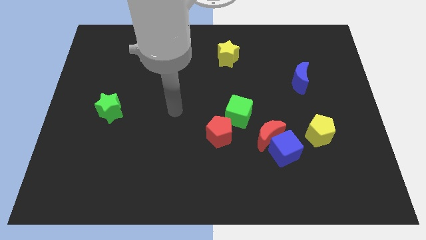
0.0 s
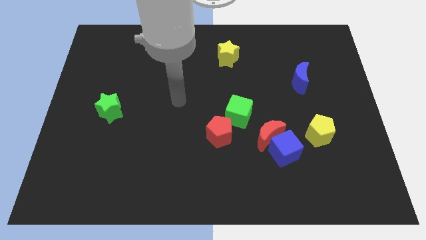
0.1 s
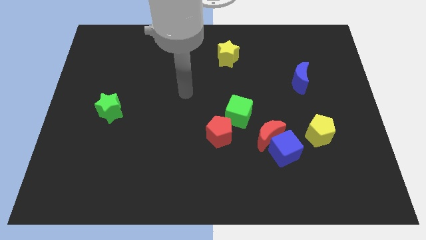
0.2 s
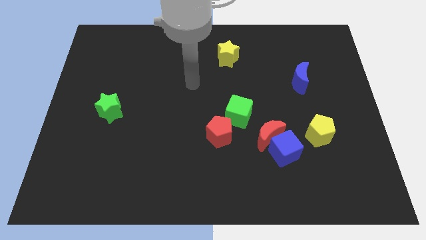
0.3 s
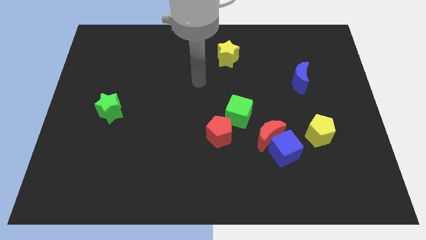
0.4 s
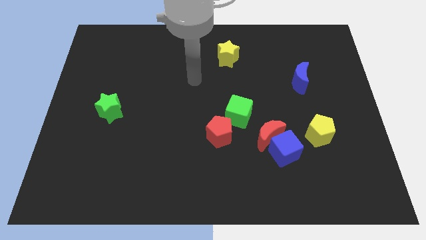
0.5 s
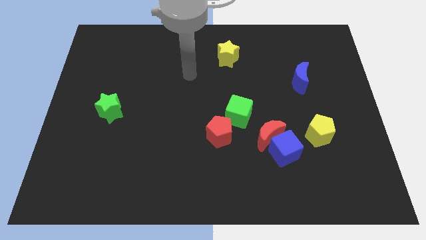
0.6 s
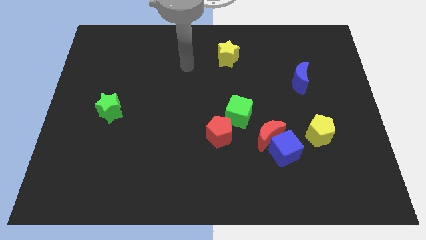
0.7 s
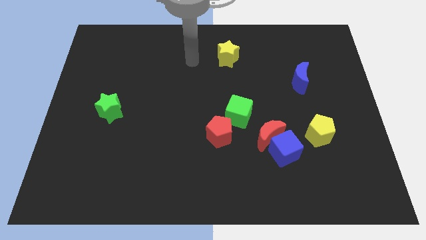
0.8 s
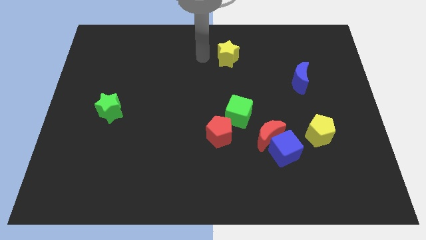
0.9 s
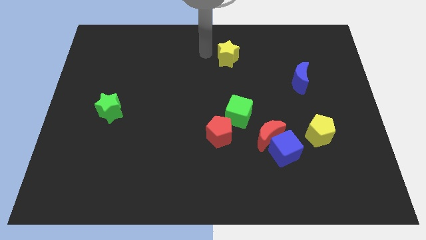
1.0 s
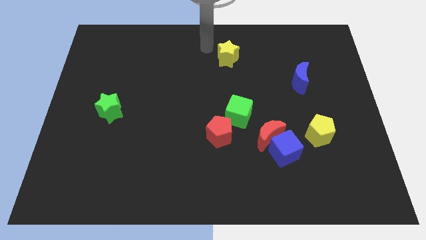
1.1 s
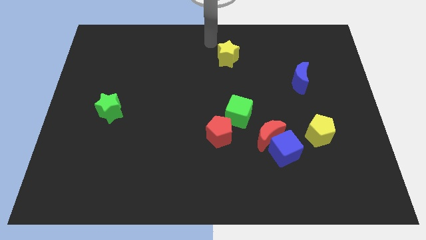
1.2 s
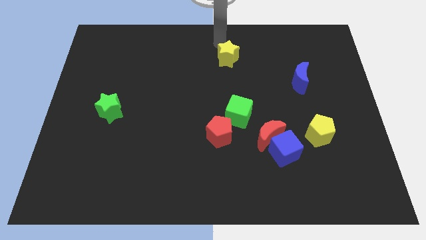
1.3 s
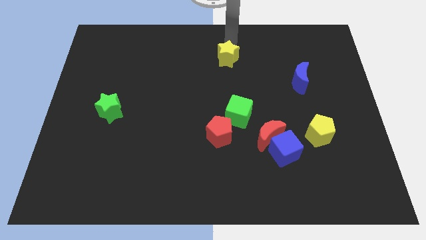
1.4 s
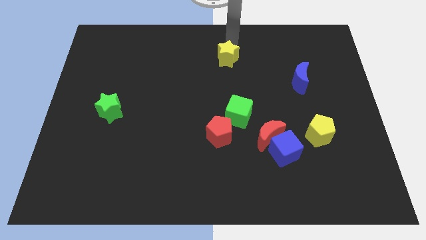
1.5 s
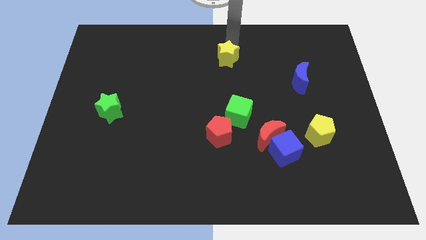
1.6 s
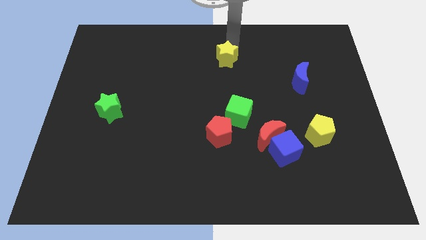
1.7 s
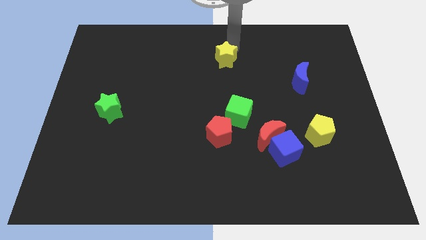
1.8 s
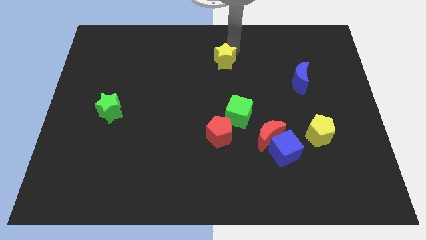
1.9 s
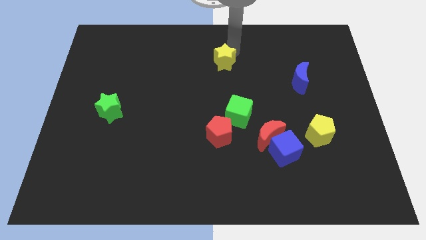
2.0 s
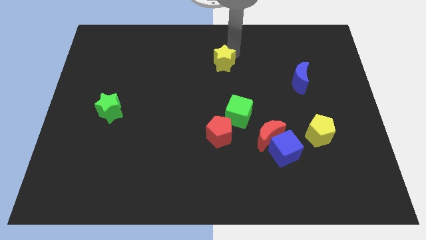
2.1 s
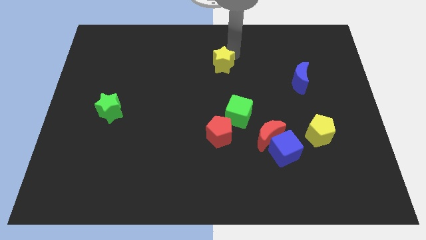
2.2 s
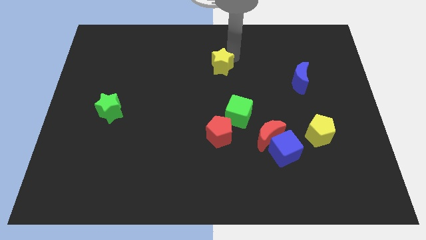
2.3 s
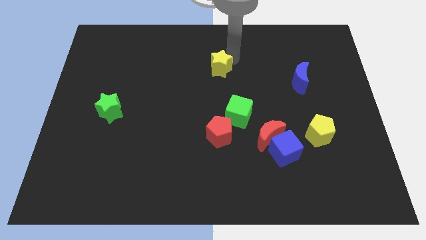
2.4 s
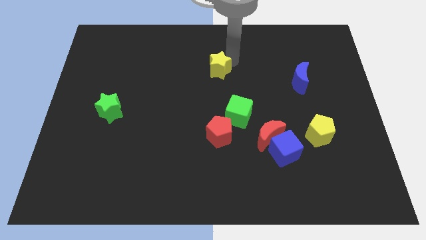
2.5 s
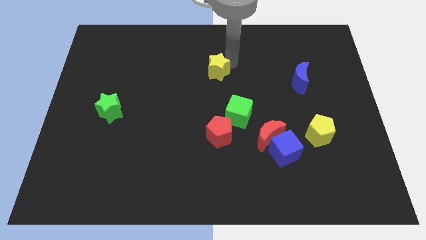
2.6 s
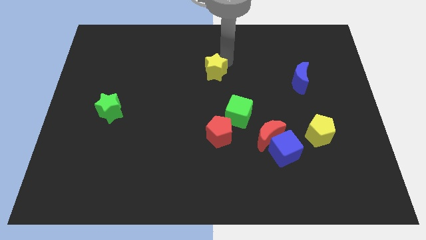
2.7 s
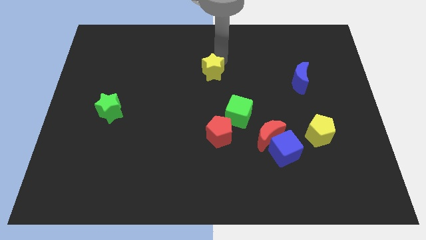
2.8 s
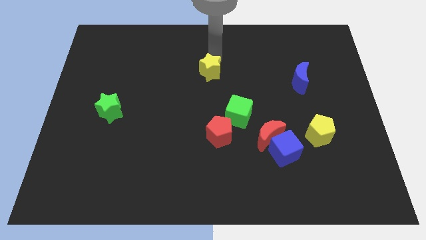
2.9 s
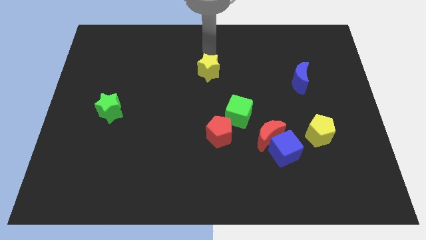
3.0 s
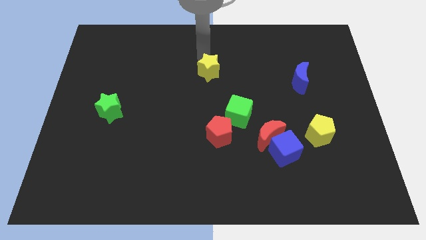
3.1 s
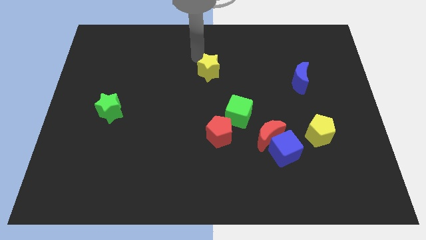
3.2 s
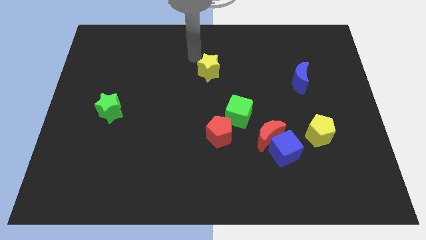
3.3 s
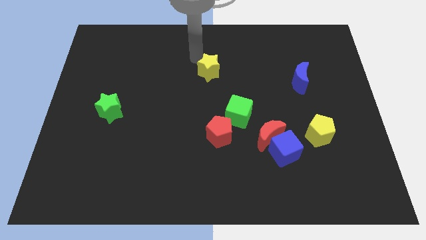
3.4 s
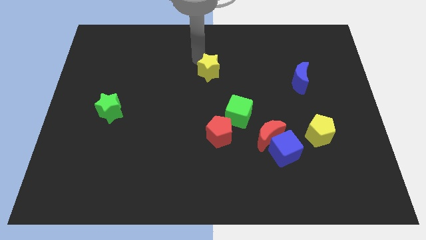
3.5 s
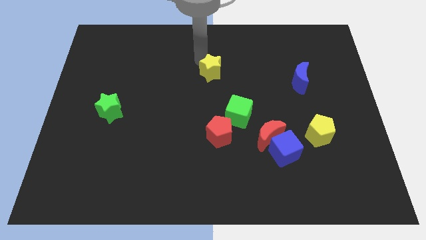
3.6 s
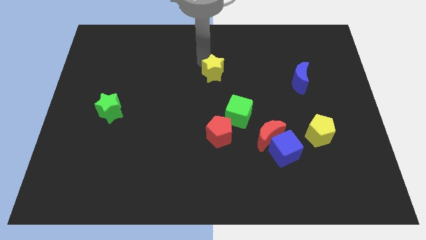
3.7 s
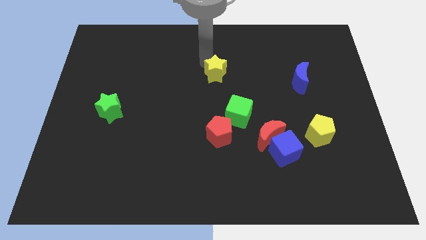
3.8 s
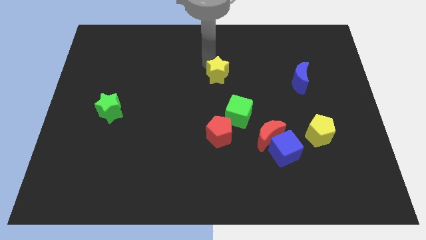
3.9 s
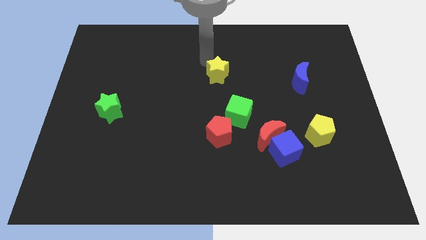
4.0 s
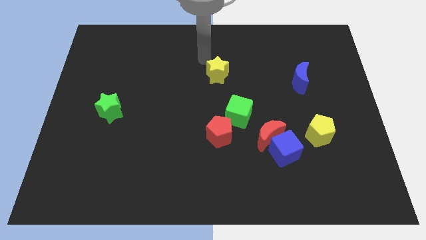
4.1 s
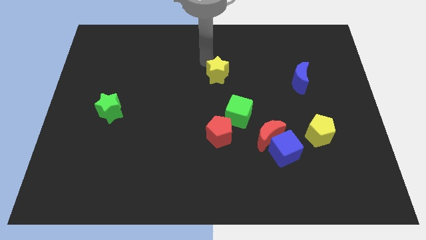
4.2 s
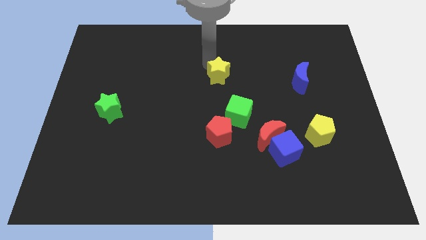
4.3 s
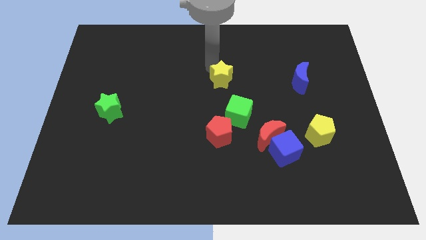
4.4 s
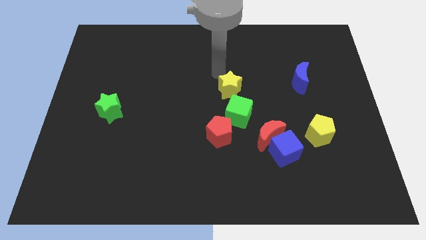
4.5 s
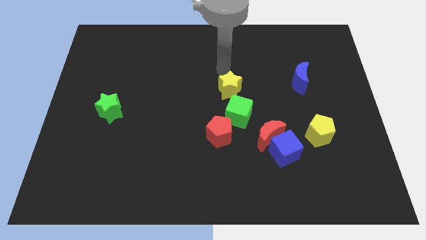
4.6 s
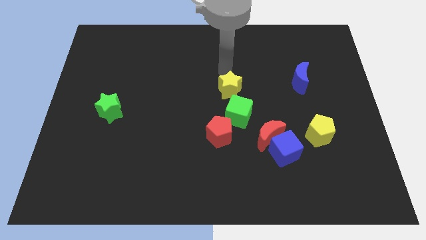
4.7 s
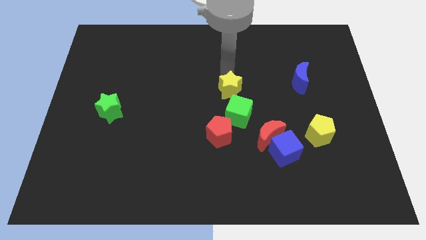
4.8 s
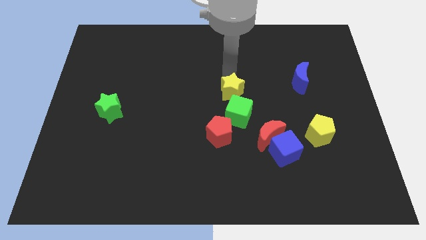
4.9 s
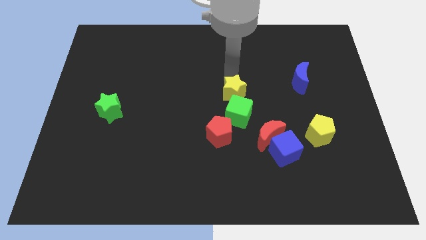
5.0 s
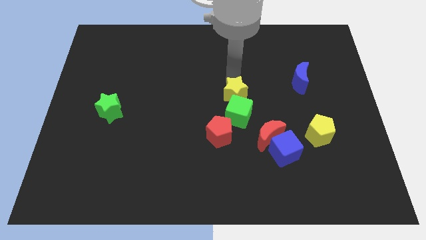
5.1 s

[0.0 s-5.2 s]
move the yellow star close to the green cube

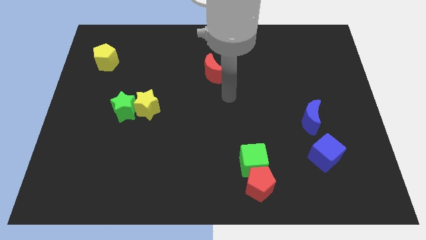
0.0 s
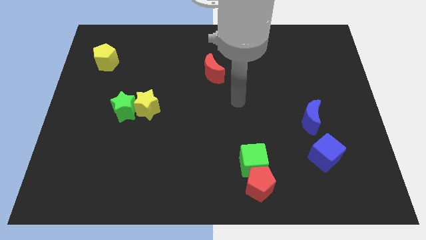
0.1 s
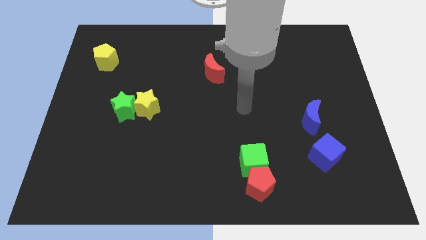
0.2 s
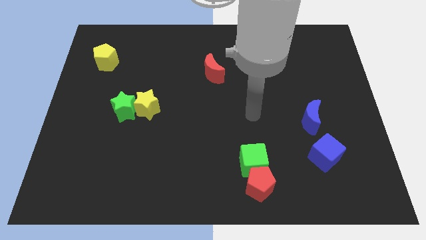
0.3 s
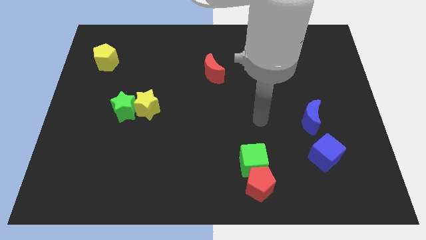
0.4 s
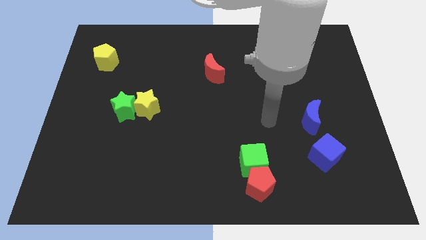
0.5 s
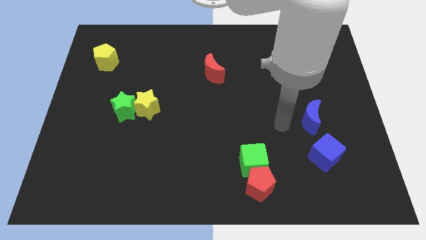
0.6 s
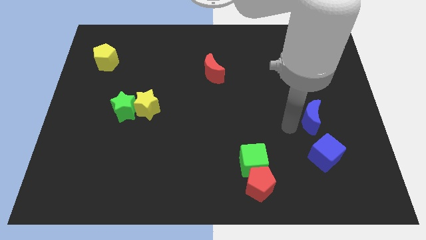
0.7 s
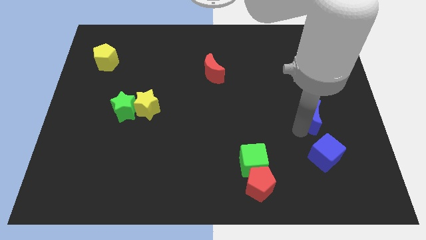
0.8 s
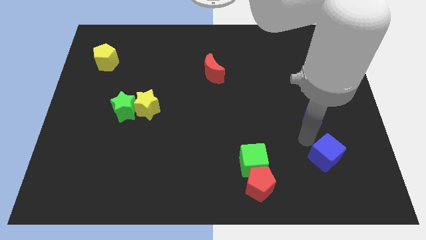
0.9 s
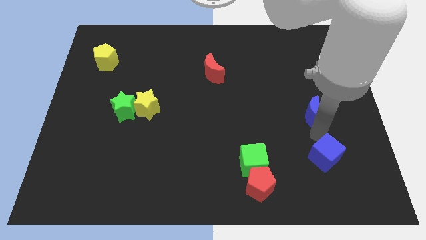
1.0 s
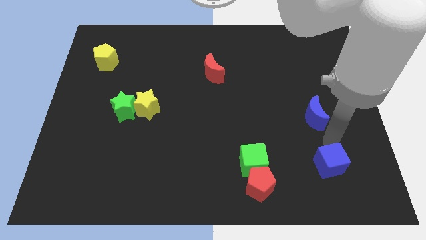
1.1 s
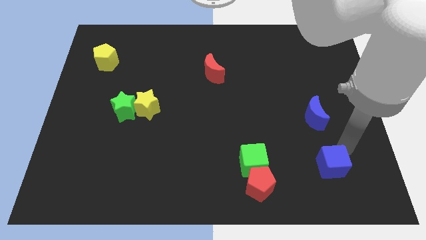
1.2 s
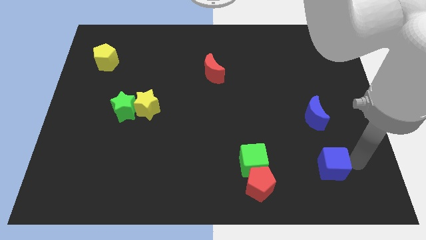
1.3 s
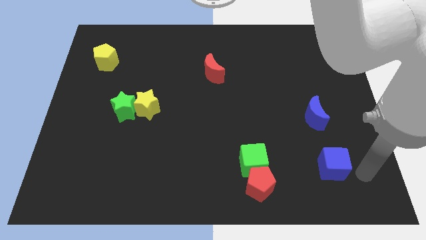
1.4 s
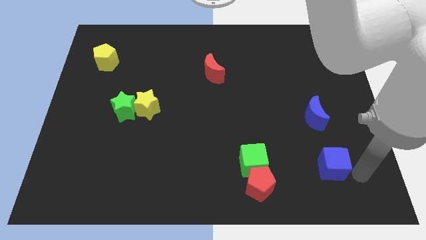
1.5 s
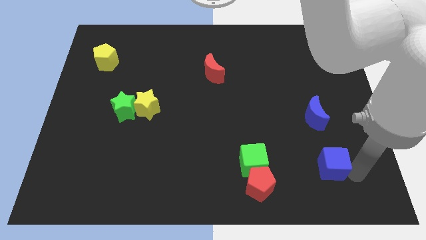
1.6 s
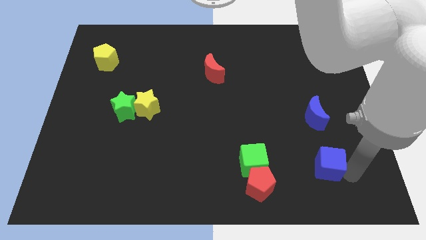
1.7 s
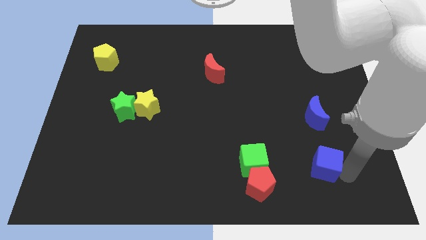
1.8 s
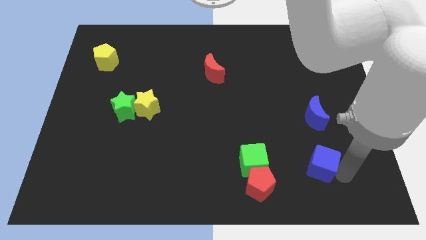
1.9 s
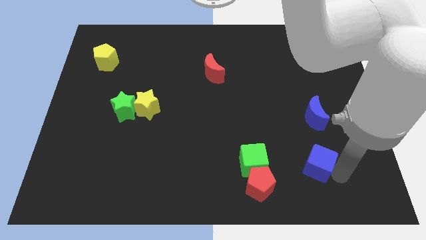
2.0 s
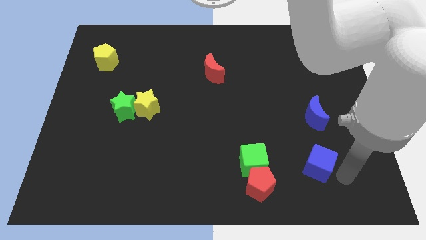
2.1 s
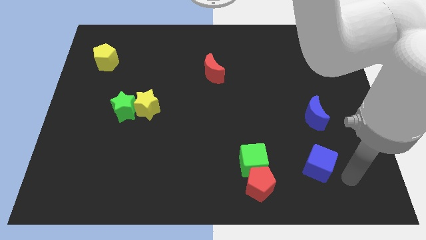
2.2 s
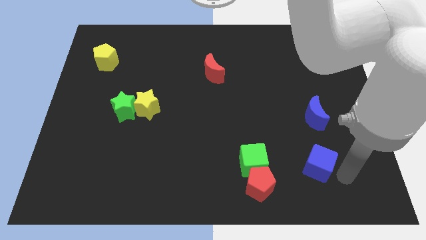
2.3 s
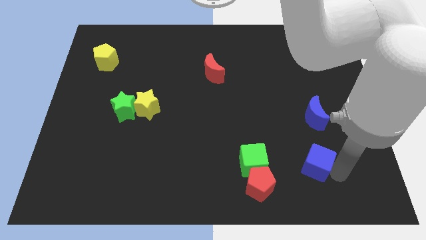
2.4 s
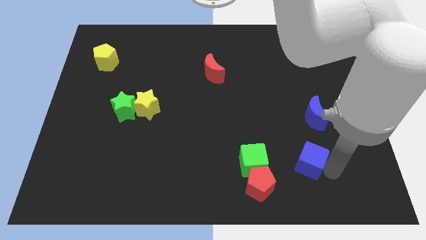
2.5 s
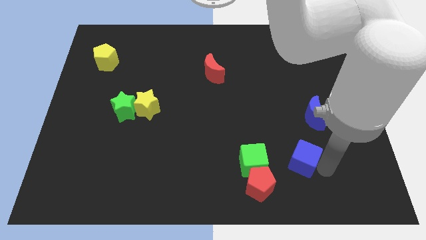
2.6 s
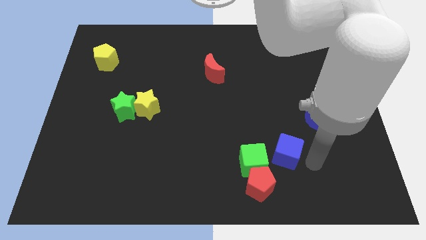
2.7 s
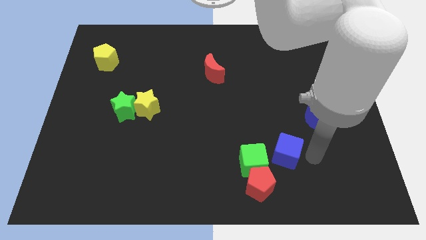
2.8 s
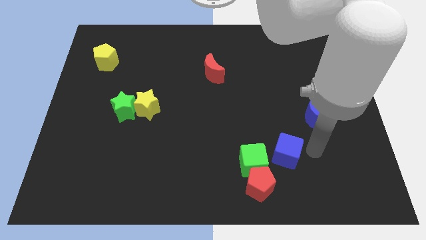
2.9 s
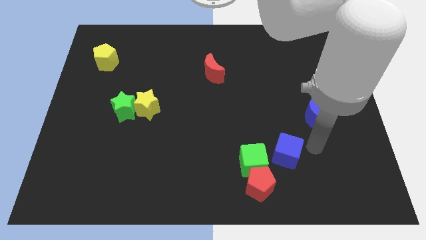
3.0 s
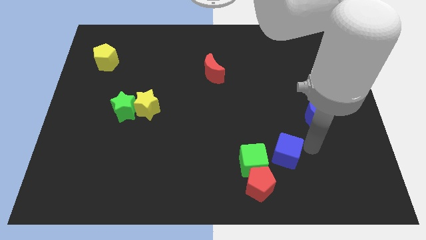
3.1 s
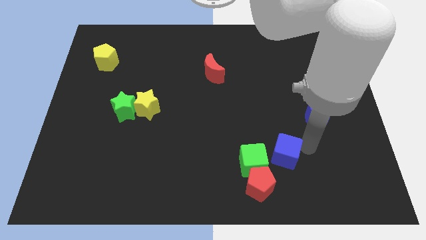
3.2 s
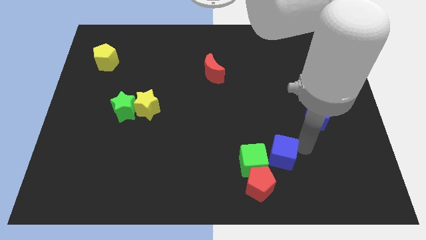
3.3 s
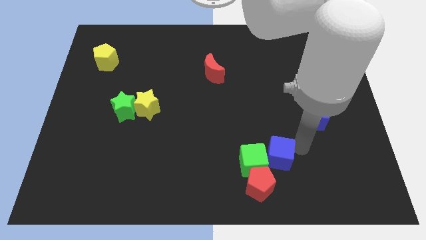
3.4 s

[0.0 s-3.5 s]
put the blue cube towards the green cube
